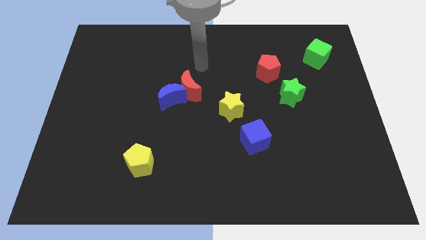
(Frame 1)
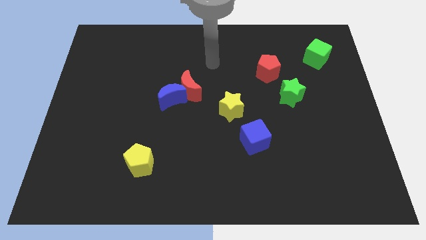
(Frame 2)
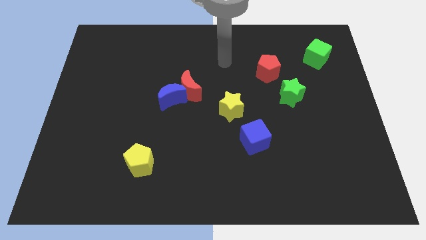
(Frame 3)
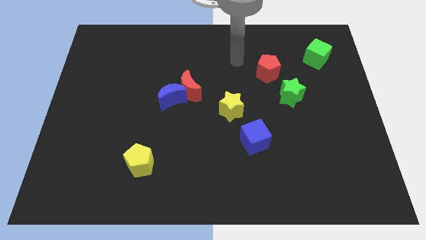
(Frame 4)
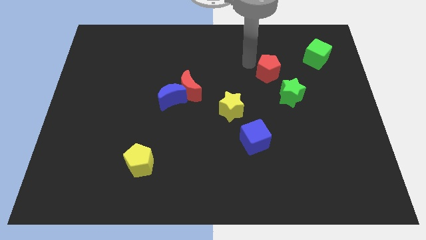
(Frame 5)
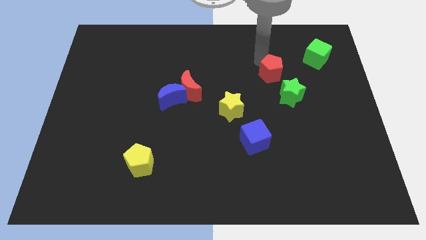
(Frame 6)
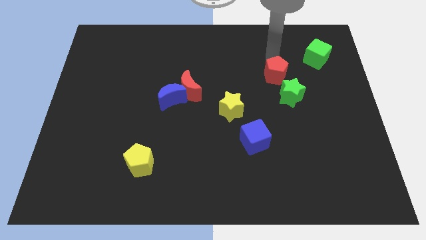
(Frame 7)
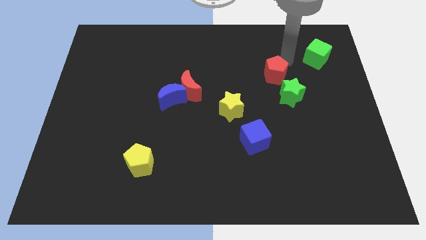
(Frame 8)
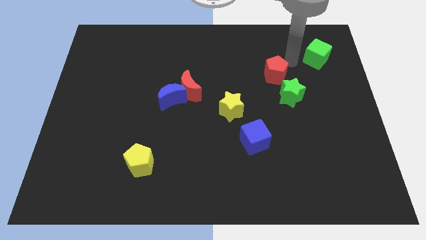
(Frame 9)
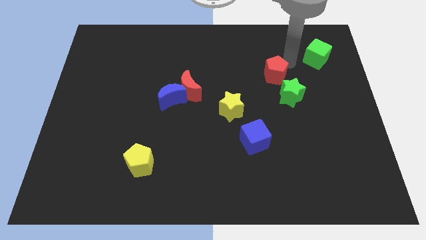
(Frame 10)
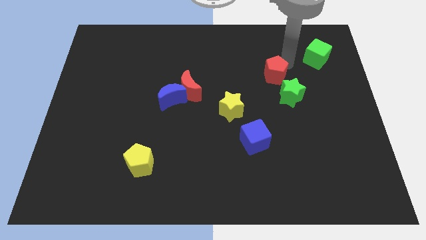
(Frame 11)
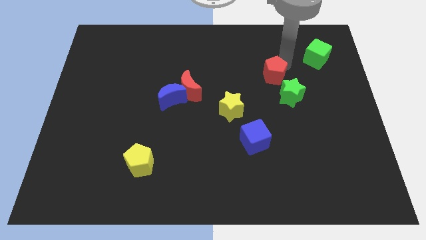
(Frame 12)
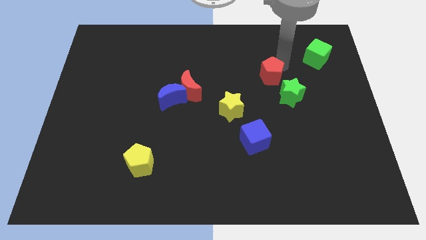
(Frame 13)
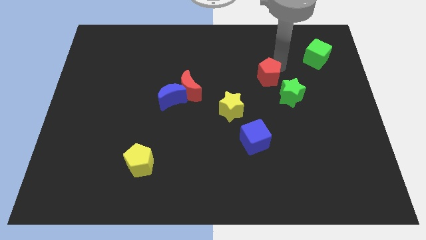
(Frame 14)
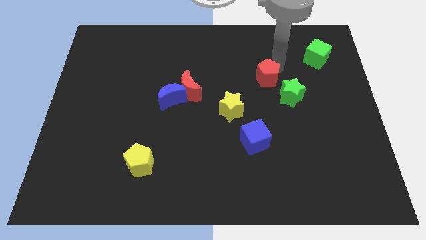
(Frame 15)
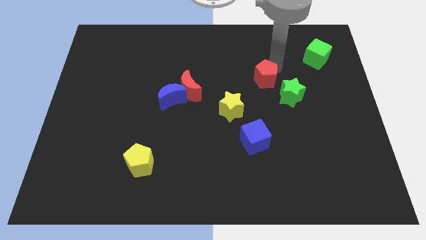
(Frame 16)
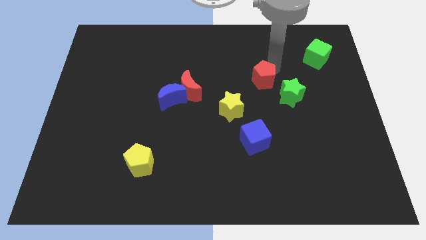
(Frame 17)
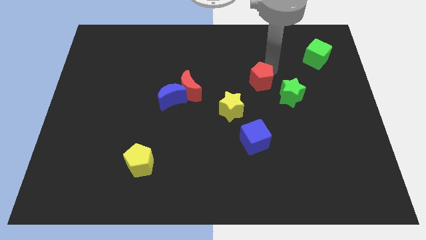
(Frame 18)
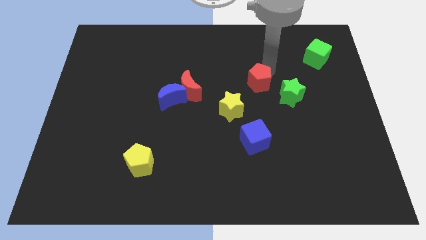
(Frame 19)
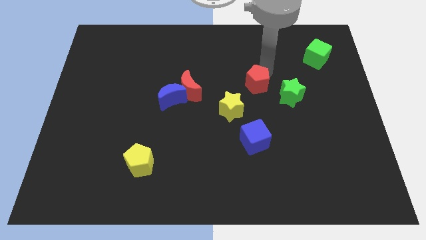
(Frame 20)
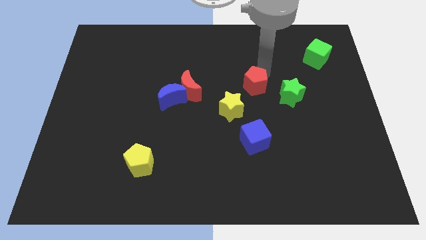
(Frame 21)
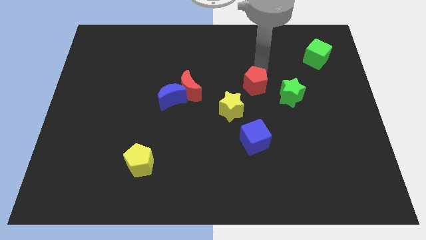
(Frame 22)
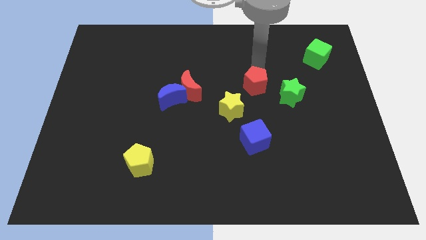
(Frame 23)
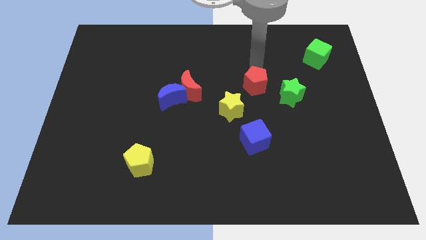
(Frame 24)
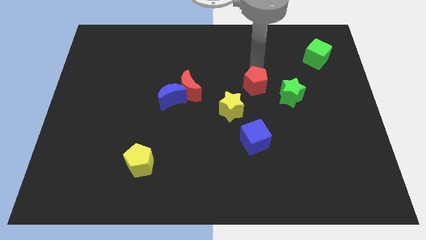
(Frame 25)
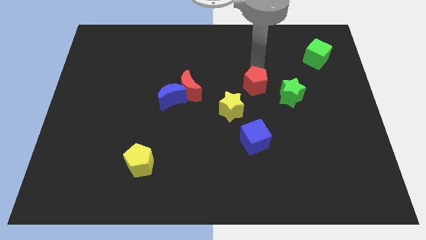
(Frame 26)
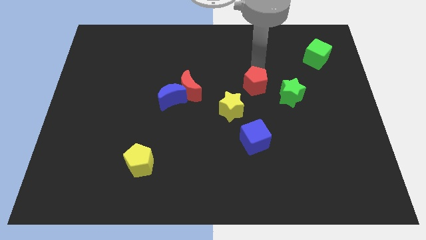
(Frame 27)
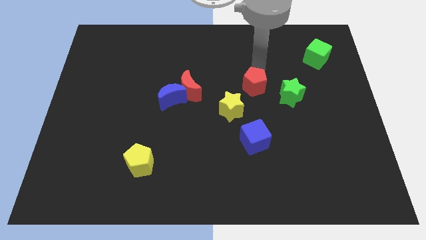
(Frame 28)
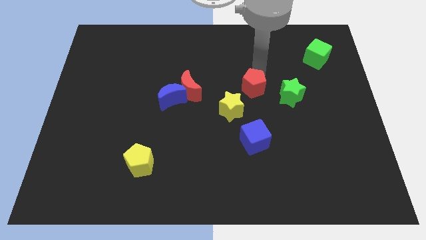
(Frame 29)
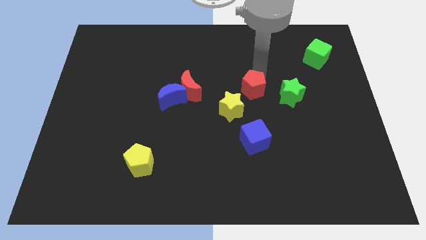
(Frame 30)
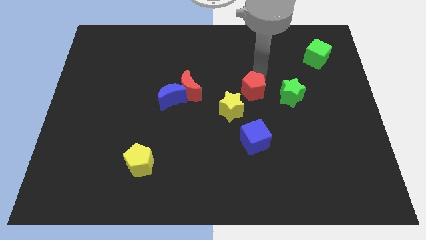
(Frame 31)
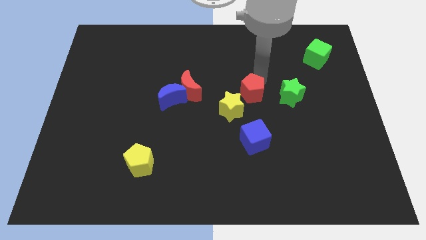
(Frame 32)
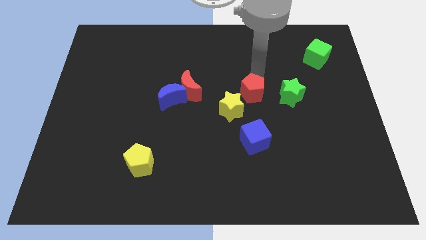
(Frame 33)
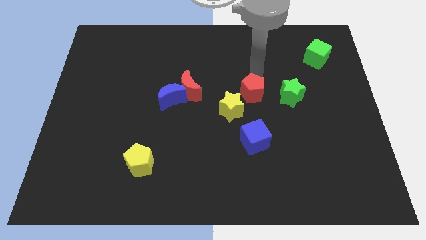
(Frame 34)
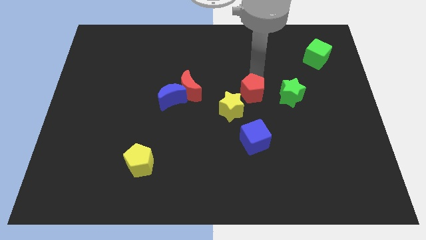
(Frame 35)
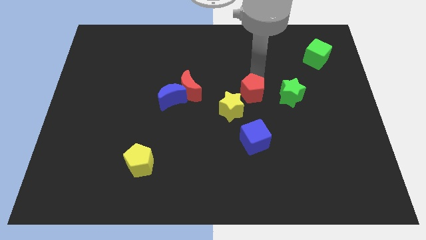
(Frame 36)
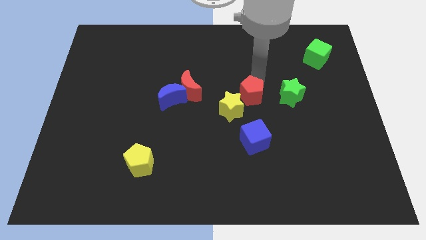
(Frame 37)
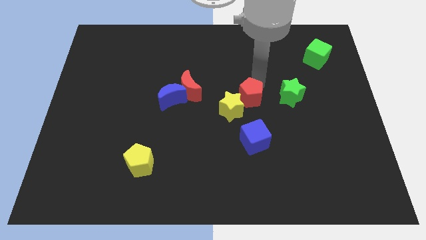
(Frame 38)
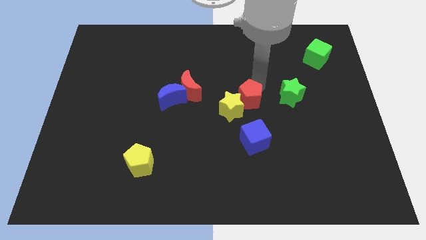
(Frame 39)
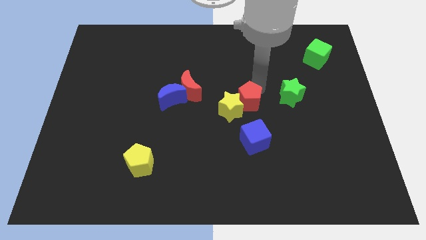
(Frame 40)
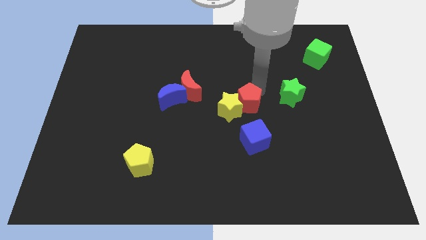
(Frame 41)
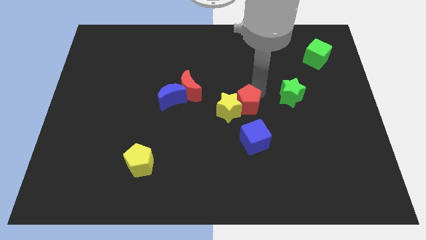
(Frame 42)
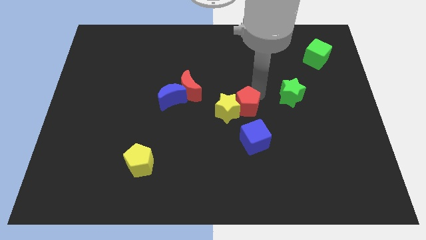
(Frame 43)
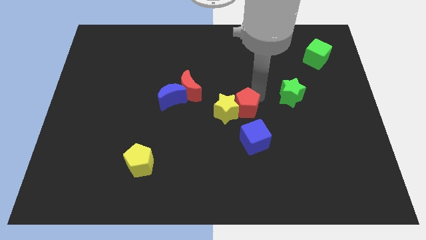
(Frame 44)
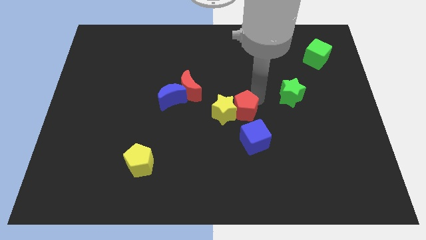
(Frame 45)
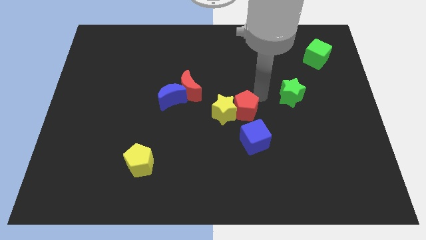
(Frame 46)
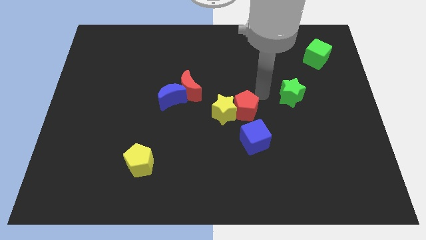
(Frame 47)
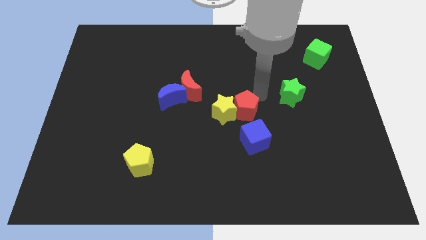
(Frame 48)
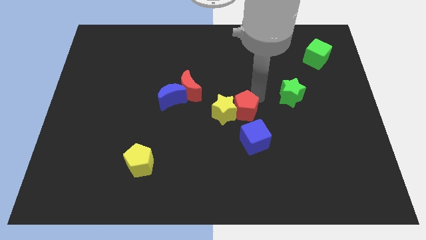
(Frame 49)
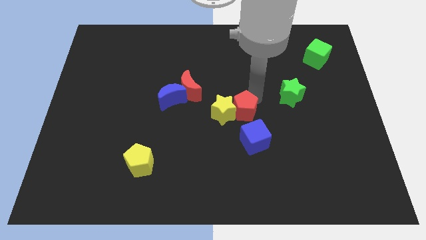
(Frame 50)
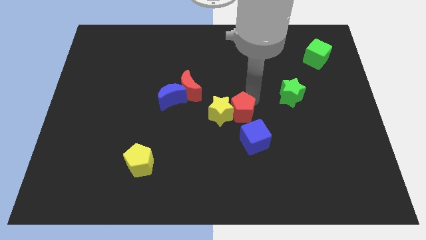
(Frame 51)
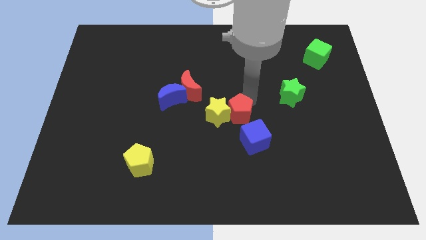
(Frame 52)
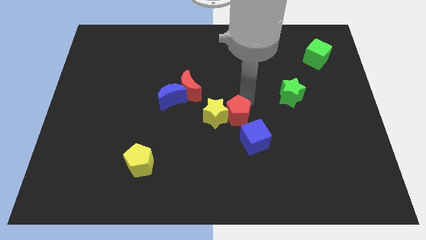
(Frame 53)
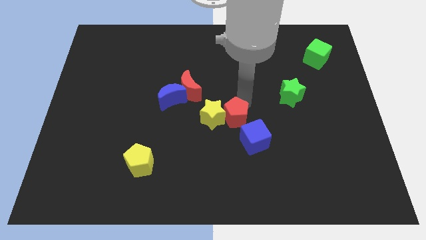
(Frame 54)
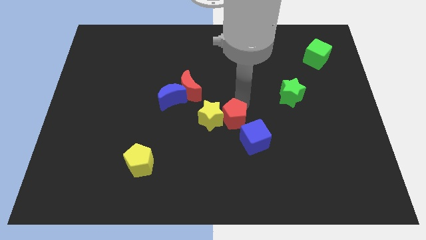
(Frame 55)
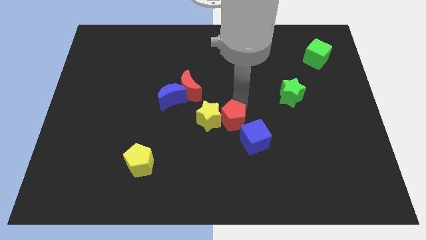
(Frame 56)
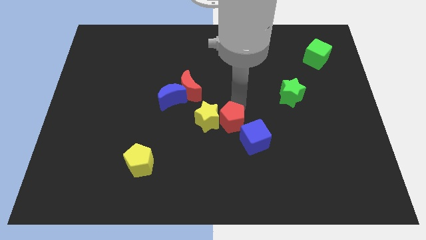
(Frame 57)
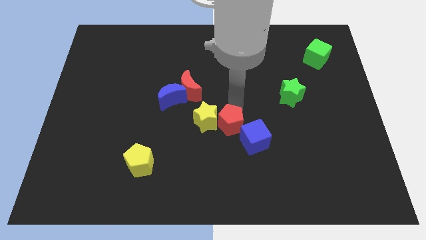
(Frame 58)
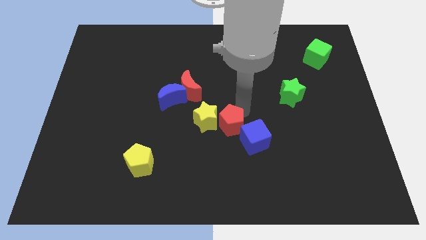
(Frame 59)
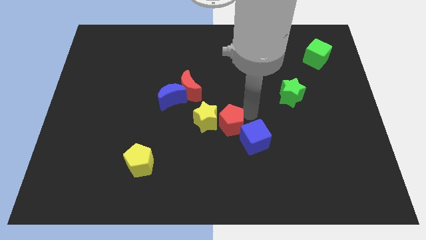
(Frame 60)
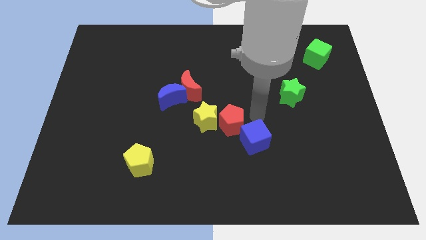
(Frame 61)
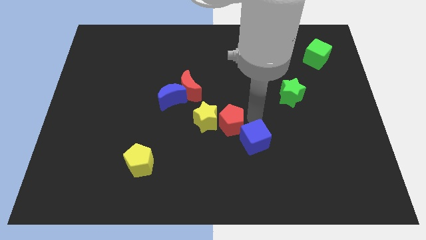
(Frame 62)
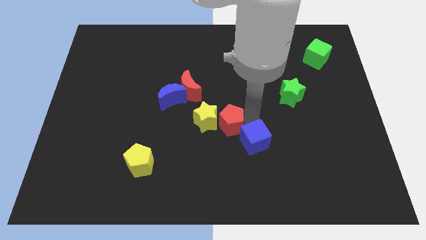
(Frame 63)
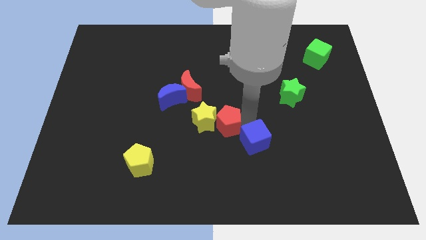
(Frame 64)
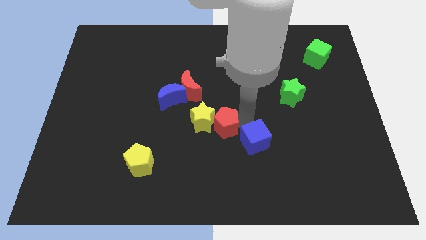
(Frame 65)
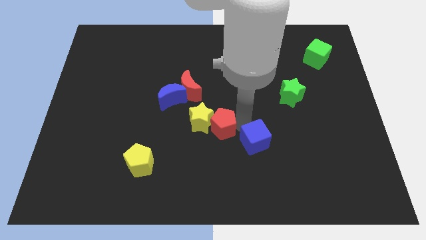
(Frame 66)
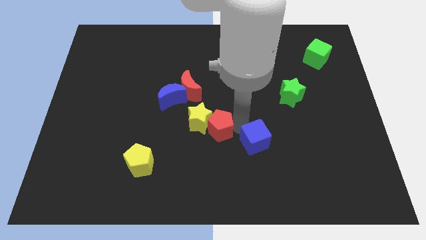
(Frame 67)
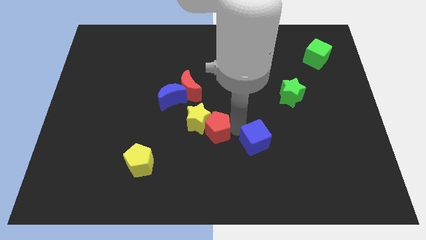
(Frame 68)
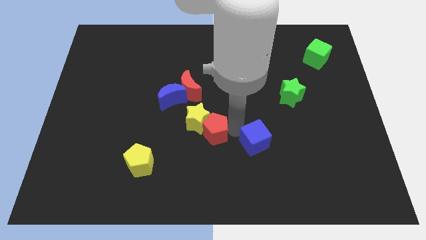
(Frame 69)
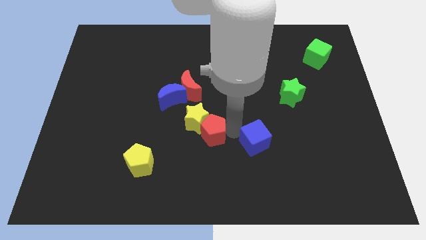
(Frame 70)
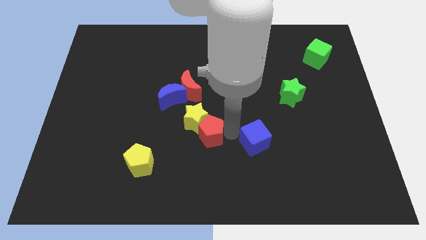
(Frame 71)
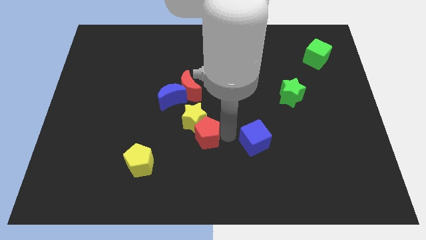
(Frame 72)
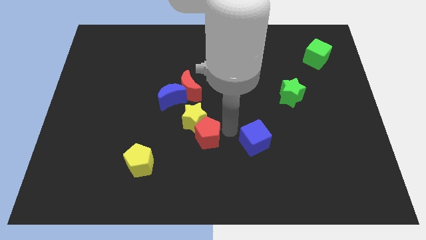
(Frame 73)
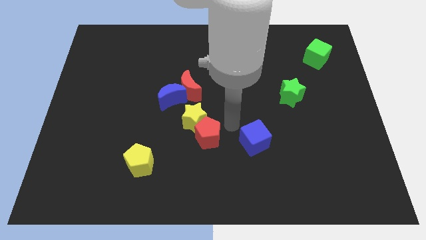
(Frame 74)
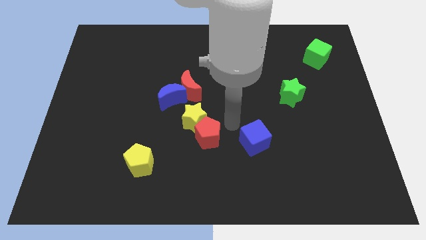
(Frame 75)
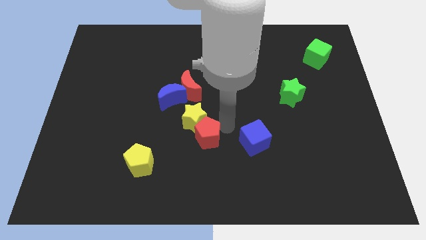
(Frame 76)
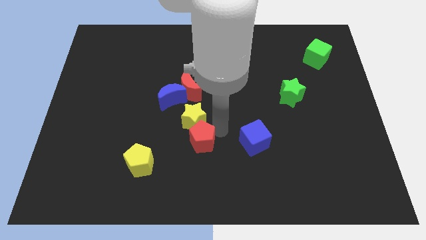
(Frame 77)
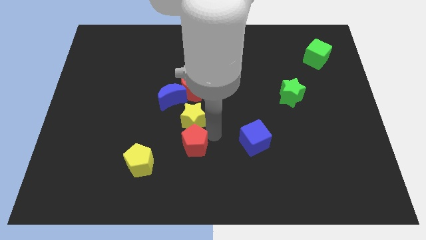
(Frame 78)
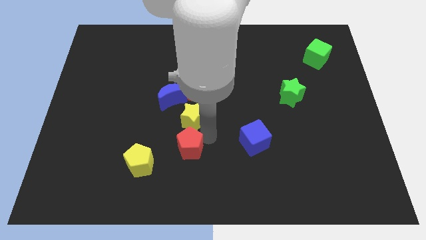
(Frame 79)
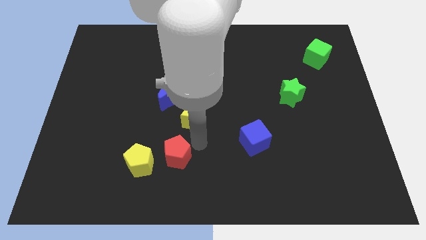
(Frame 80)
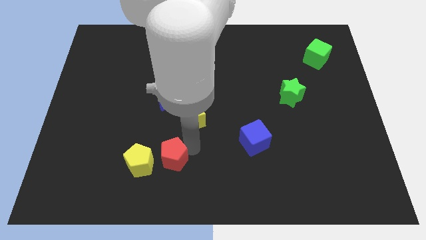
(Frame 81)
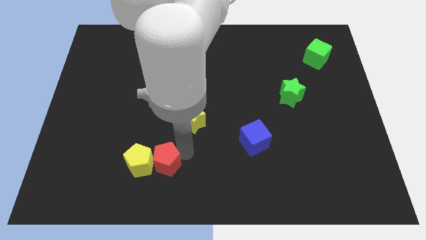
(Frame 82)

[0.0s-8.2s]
move the red pentagon next to the yellow pentagon
